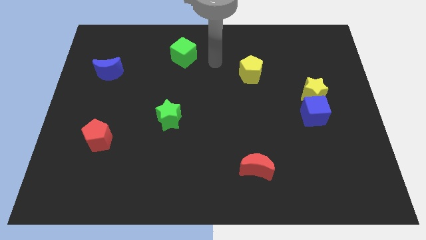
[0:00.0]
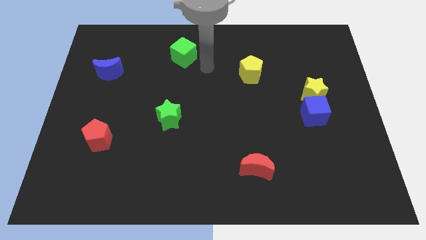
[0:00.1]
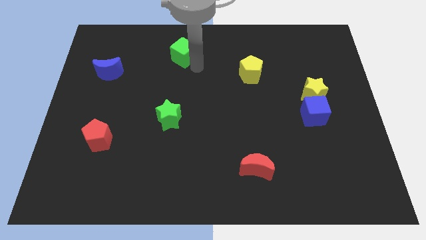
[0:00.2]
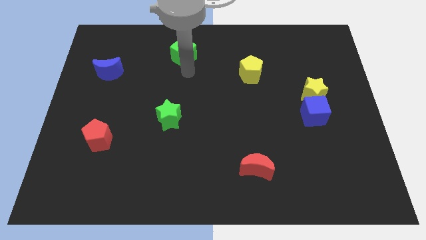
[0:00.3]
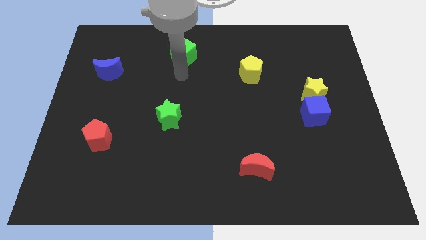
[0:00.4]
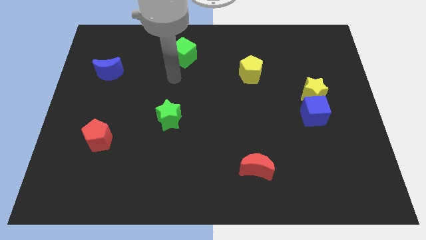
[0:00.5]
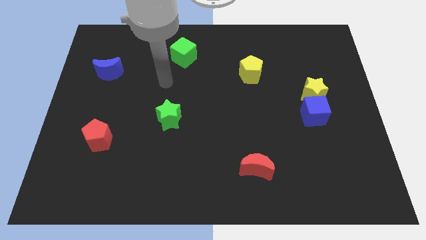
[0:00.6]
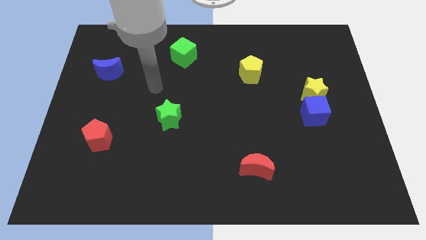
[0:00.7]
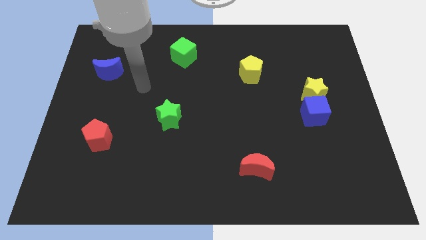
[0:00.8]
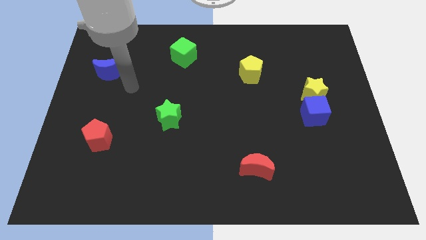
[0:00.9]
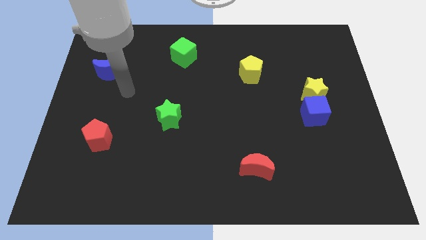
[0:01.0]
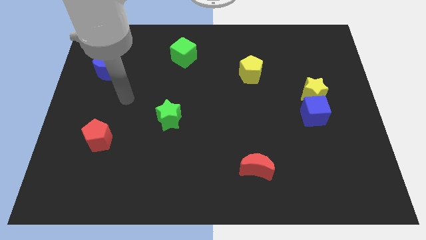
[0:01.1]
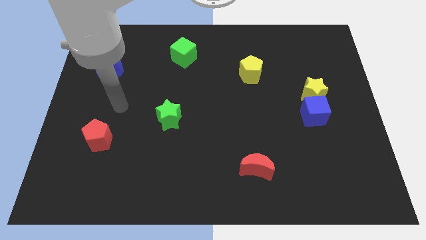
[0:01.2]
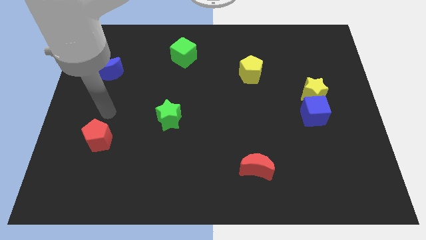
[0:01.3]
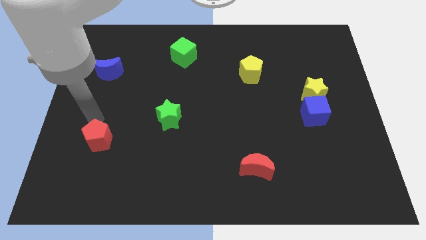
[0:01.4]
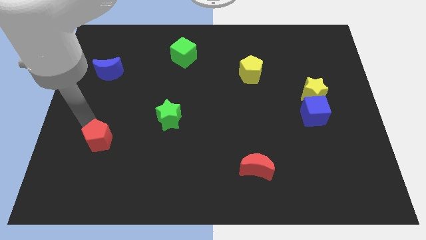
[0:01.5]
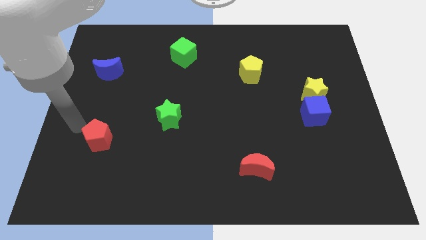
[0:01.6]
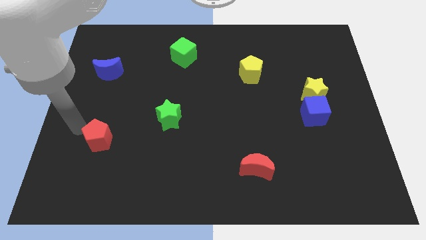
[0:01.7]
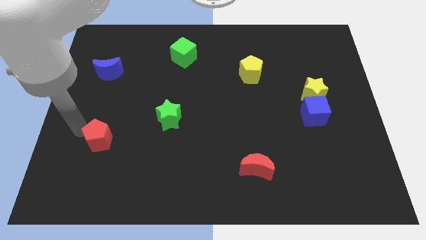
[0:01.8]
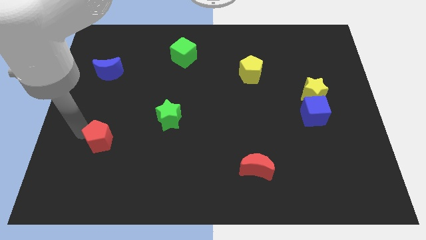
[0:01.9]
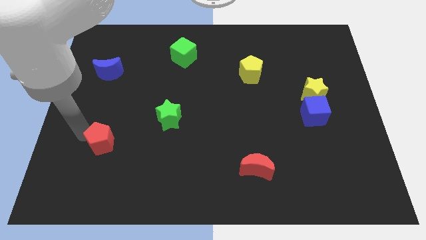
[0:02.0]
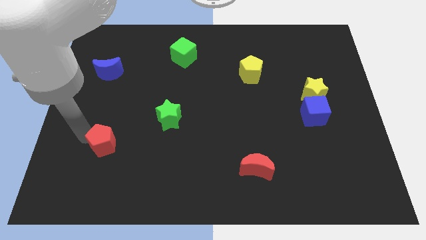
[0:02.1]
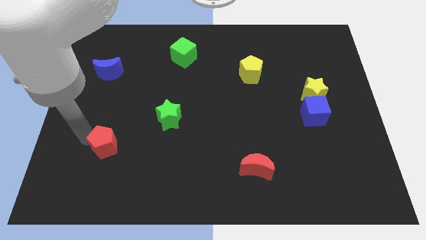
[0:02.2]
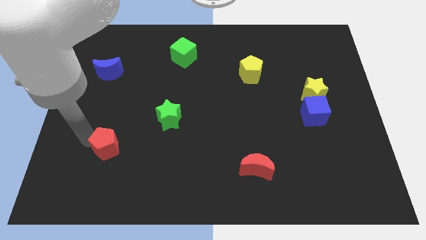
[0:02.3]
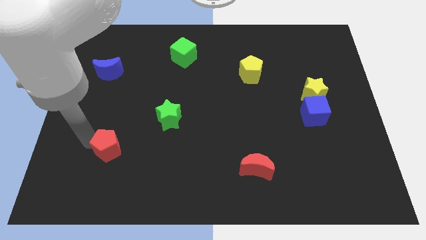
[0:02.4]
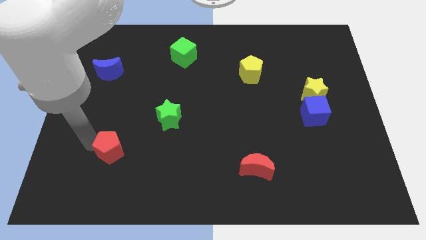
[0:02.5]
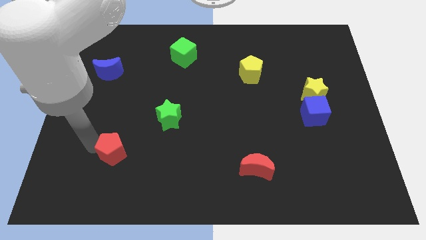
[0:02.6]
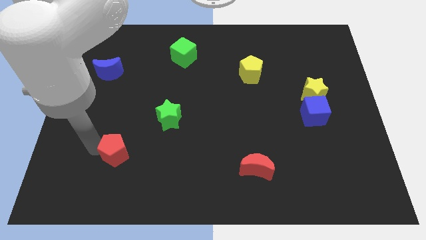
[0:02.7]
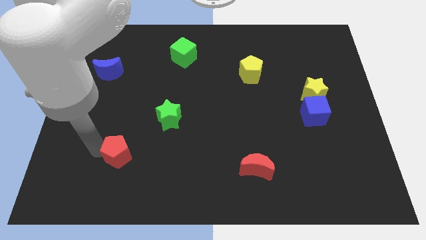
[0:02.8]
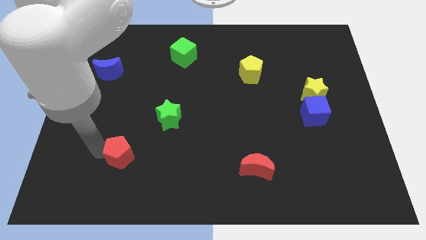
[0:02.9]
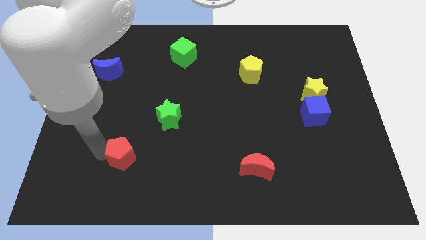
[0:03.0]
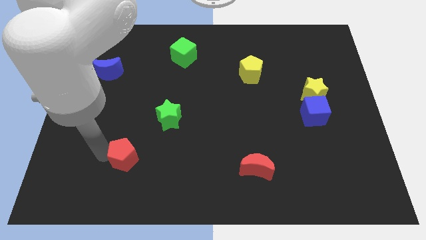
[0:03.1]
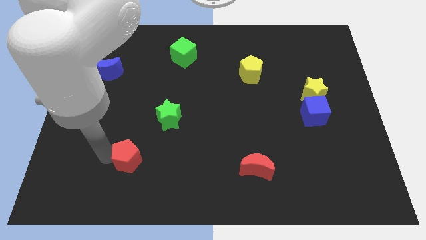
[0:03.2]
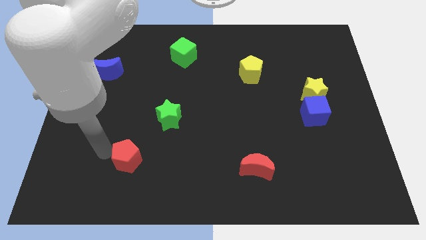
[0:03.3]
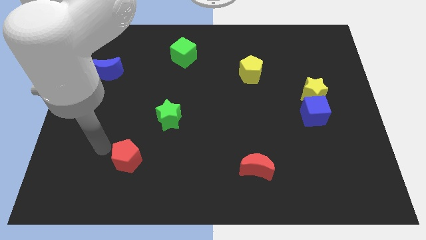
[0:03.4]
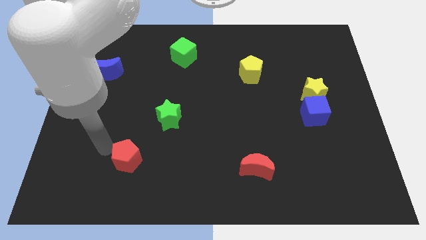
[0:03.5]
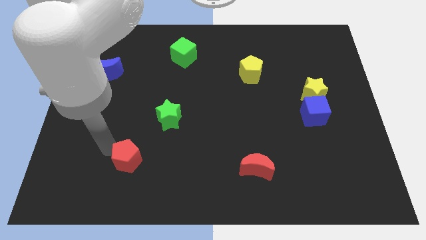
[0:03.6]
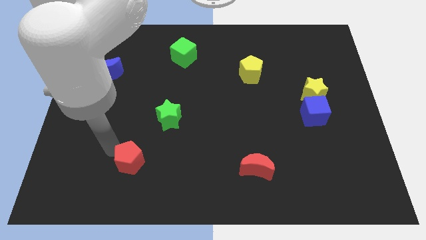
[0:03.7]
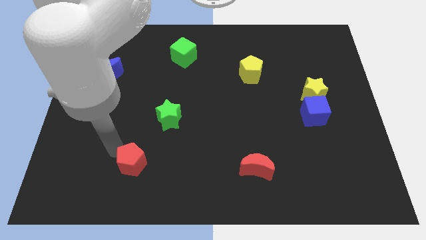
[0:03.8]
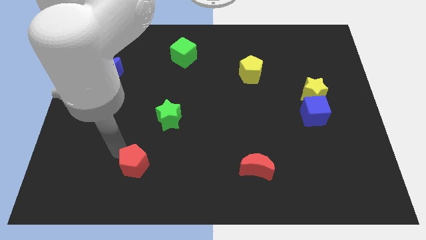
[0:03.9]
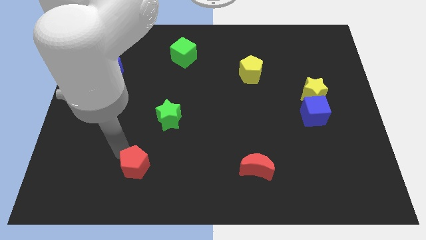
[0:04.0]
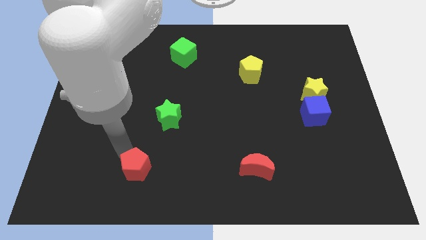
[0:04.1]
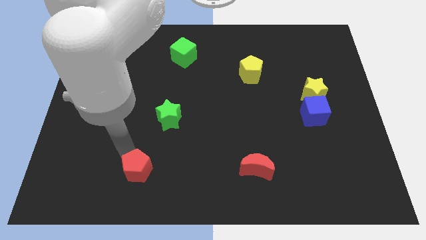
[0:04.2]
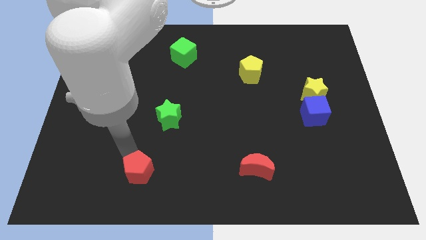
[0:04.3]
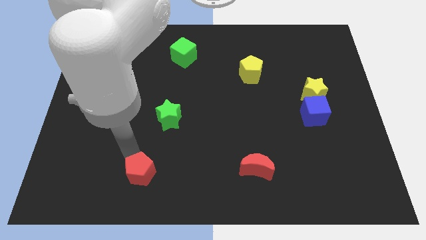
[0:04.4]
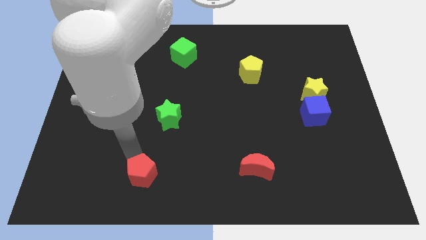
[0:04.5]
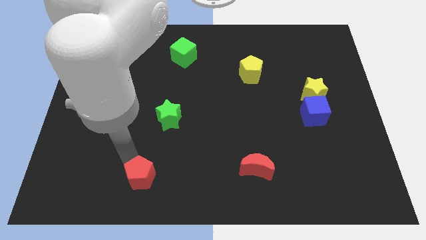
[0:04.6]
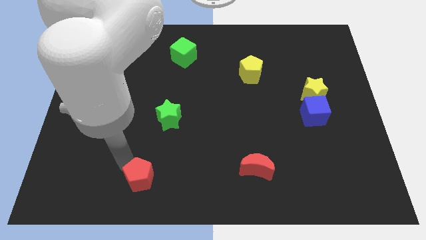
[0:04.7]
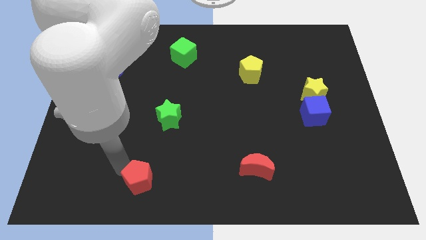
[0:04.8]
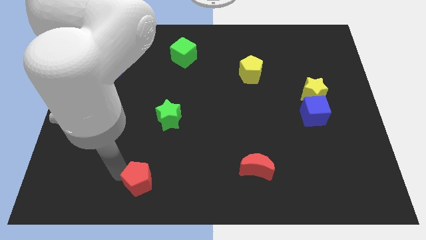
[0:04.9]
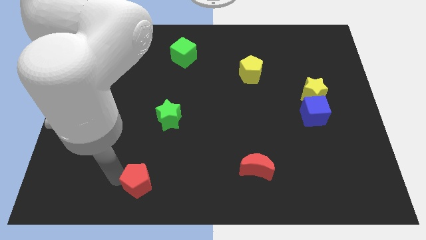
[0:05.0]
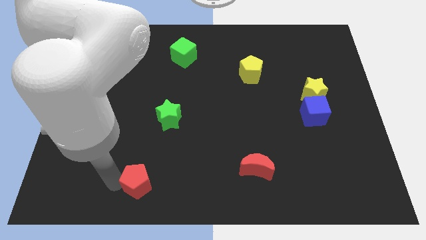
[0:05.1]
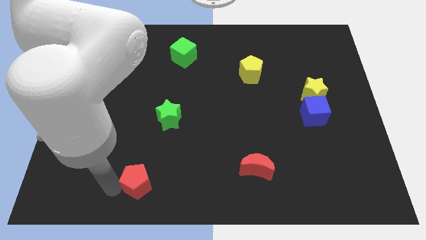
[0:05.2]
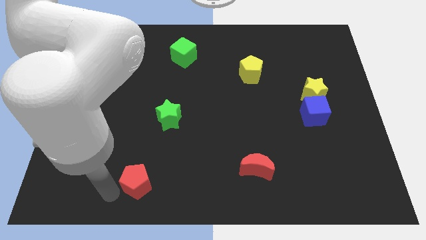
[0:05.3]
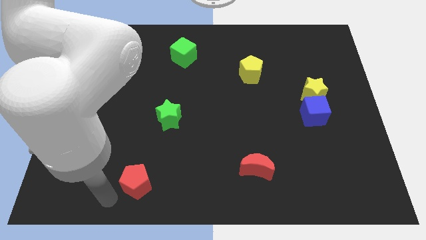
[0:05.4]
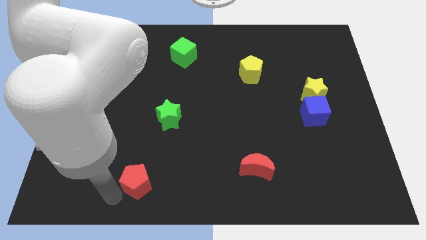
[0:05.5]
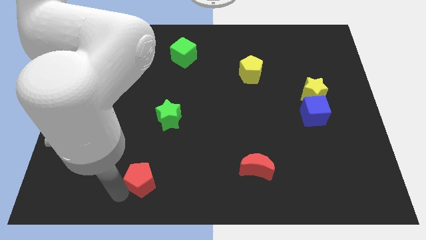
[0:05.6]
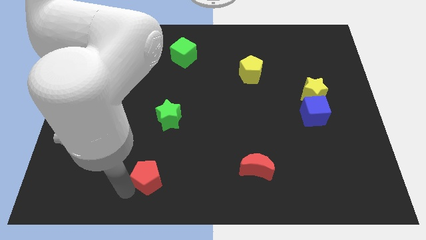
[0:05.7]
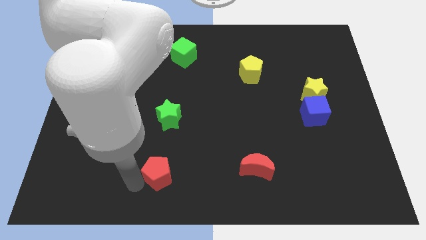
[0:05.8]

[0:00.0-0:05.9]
move the red pentagon to the bottom

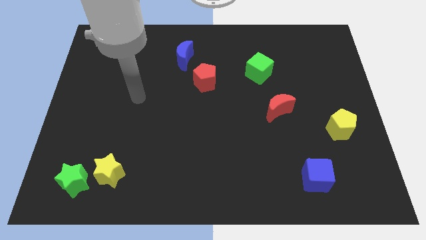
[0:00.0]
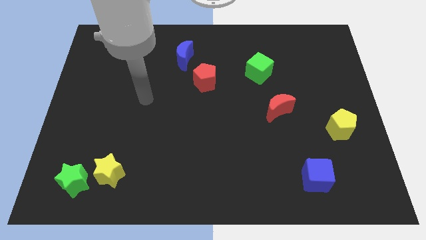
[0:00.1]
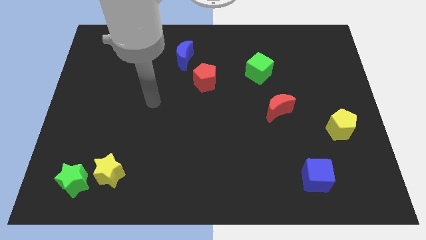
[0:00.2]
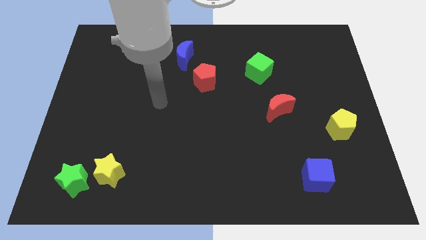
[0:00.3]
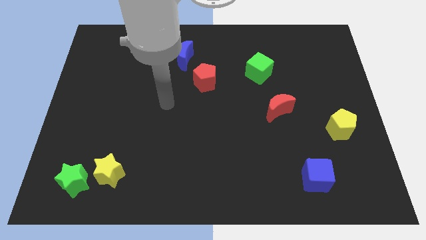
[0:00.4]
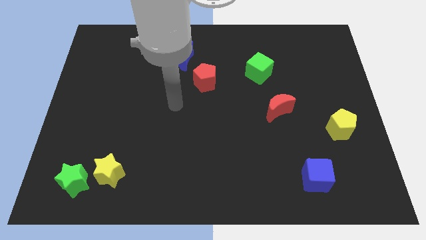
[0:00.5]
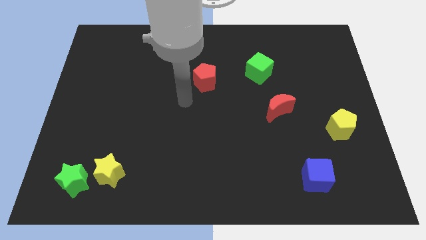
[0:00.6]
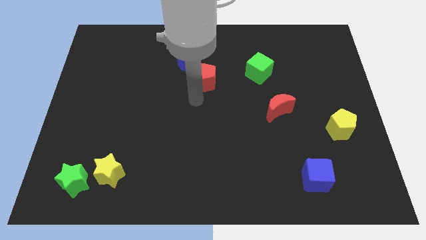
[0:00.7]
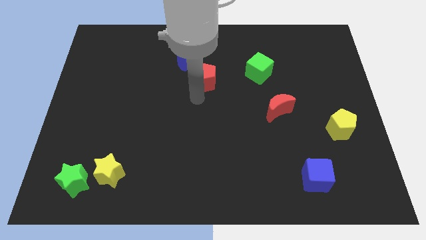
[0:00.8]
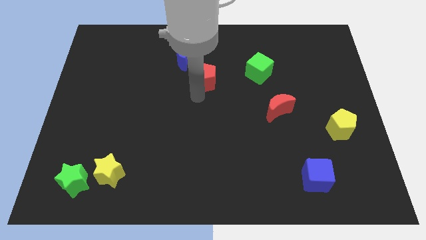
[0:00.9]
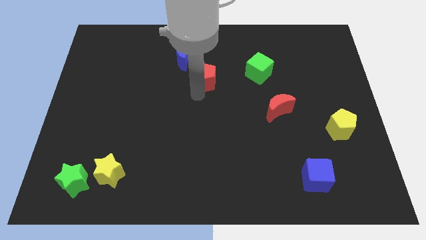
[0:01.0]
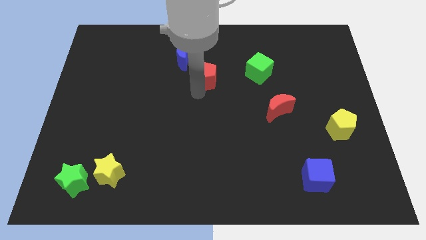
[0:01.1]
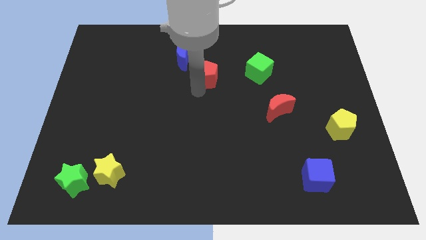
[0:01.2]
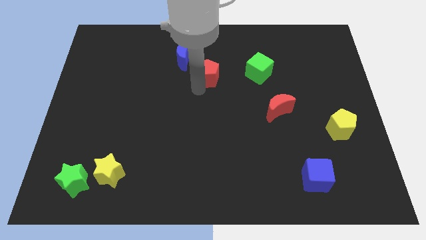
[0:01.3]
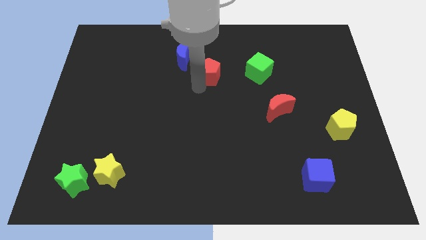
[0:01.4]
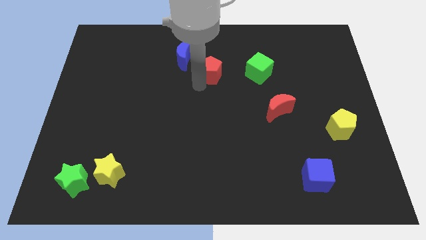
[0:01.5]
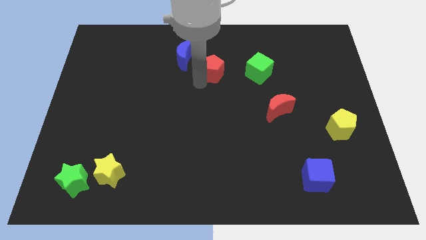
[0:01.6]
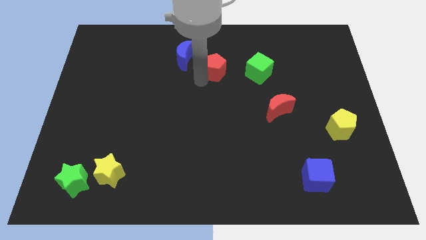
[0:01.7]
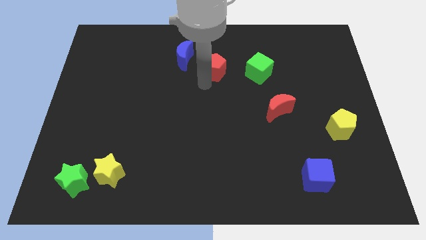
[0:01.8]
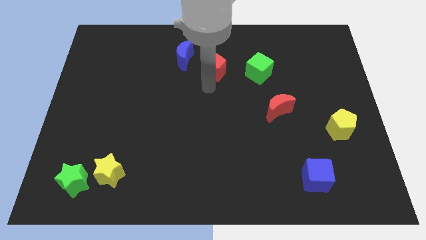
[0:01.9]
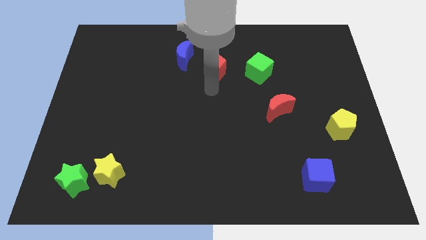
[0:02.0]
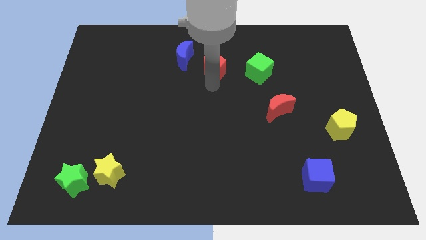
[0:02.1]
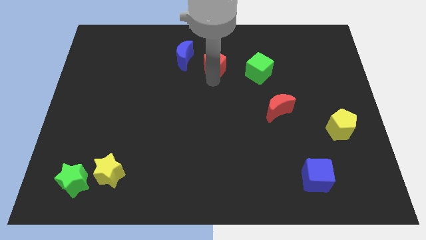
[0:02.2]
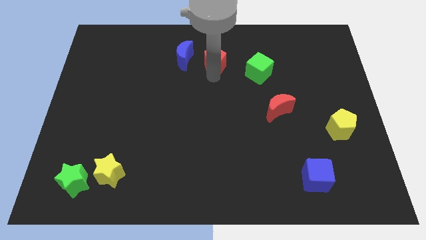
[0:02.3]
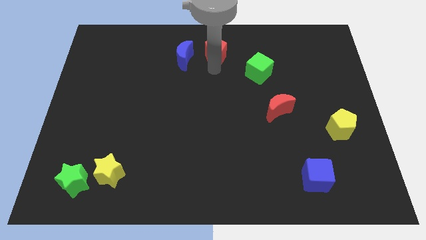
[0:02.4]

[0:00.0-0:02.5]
push the red pentagon to the towards your base
